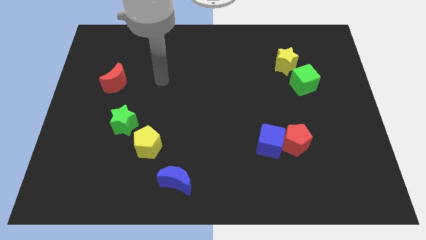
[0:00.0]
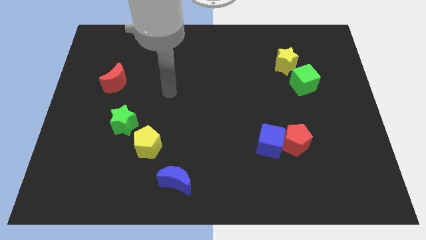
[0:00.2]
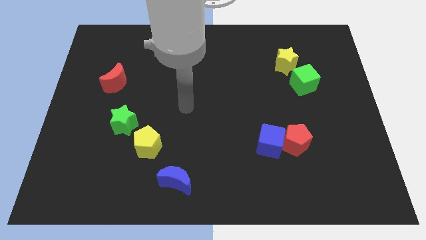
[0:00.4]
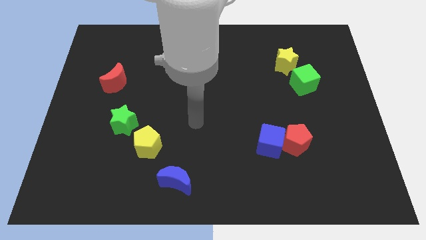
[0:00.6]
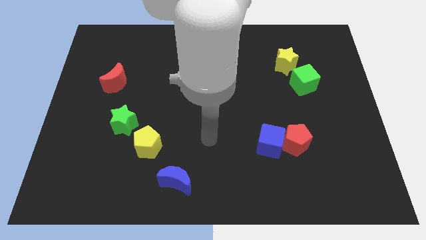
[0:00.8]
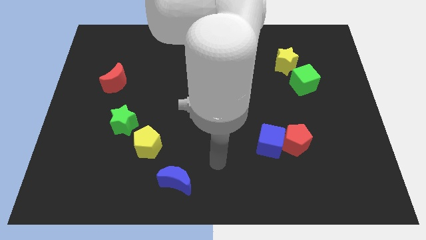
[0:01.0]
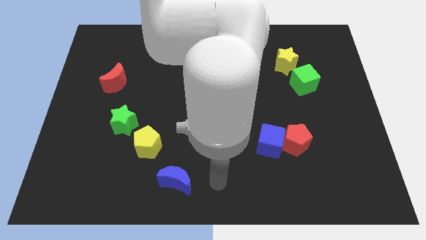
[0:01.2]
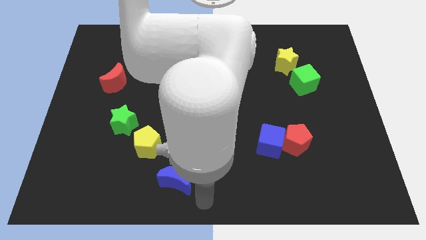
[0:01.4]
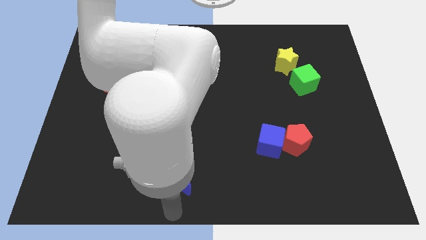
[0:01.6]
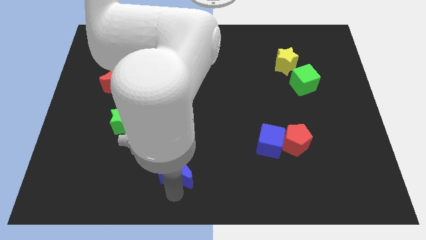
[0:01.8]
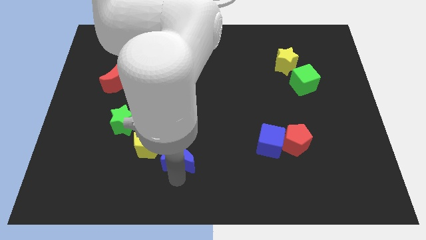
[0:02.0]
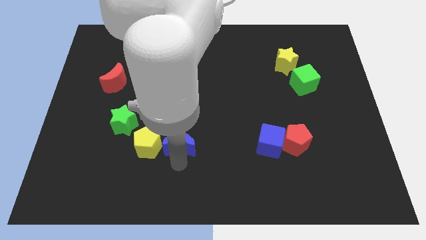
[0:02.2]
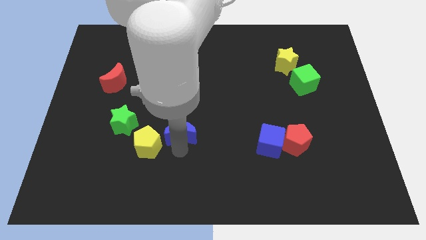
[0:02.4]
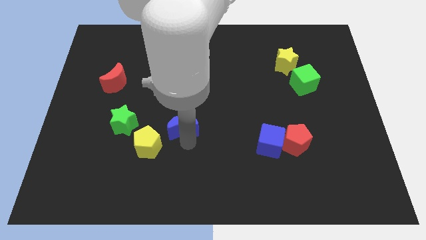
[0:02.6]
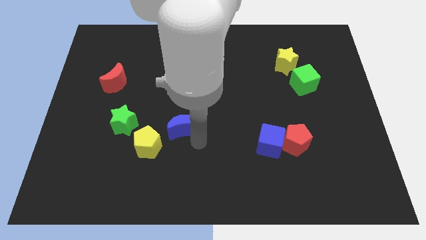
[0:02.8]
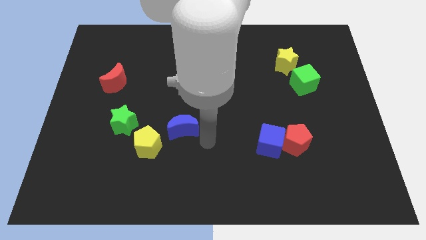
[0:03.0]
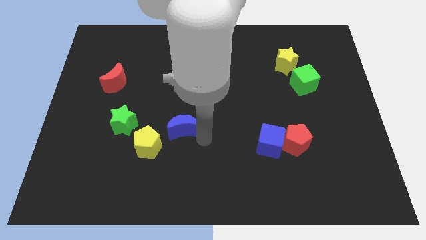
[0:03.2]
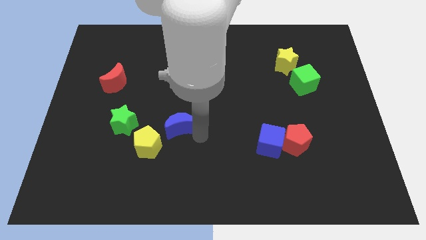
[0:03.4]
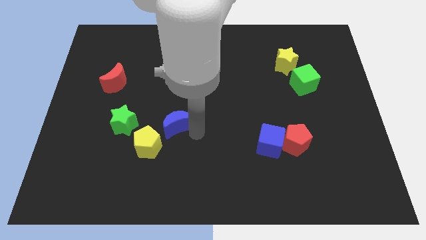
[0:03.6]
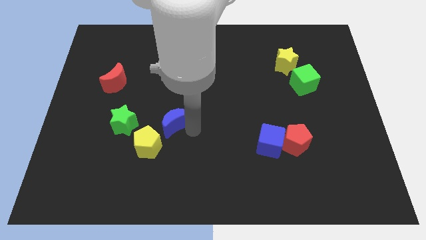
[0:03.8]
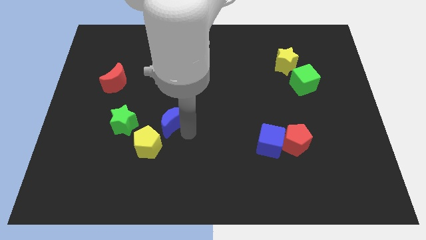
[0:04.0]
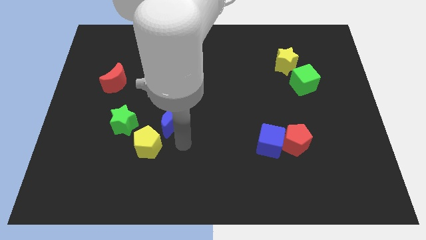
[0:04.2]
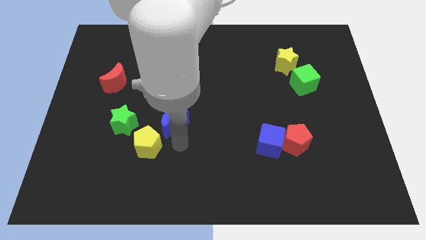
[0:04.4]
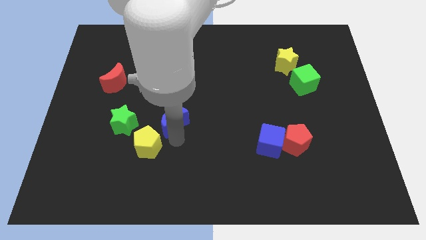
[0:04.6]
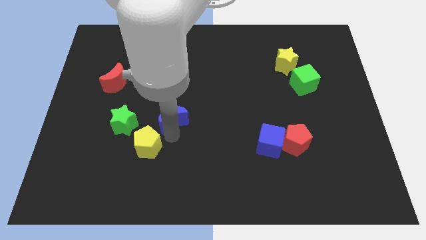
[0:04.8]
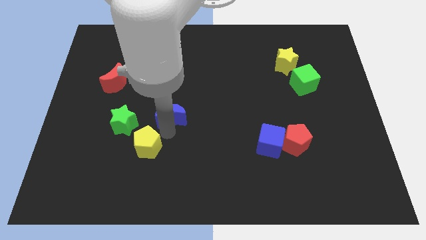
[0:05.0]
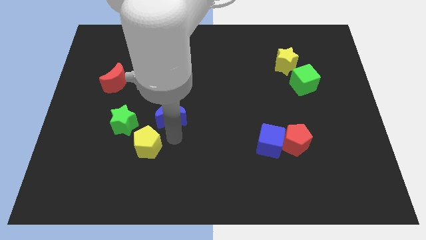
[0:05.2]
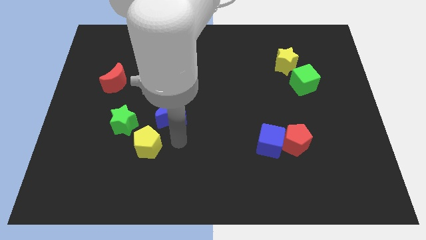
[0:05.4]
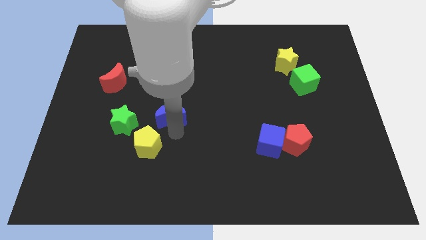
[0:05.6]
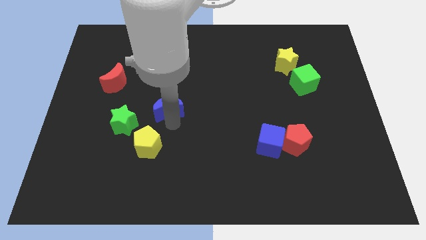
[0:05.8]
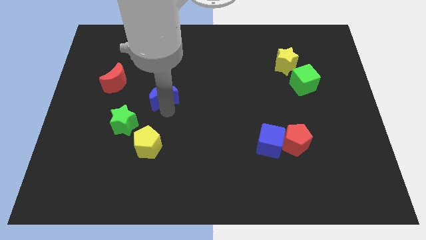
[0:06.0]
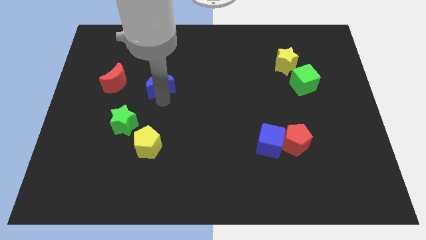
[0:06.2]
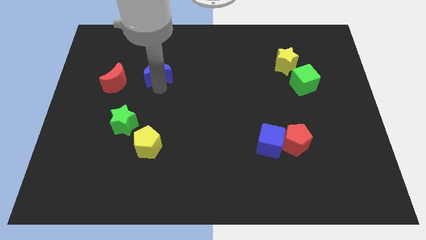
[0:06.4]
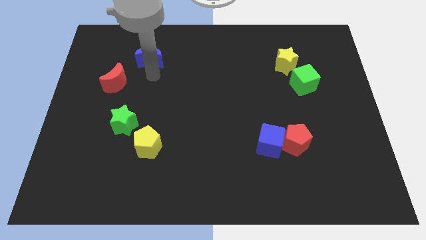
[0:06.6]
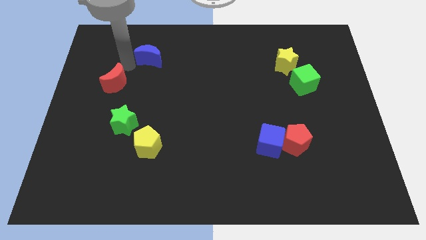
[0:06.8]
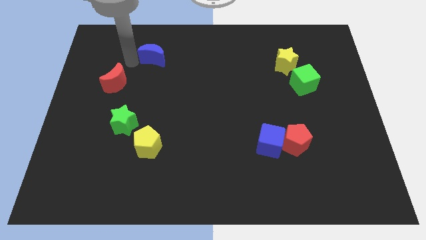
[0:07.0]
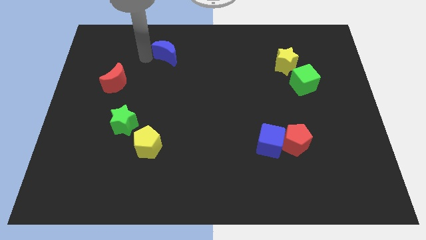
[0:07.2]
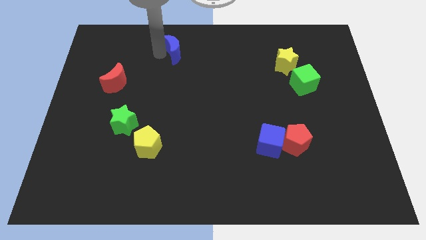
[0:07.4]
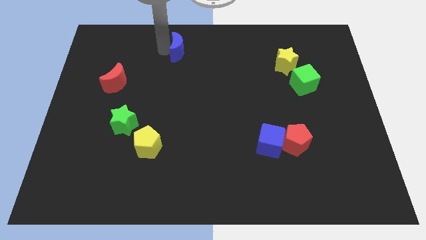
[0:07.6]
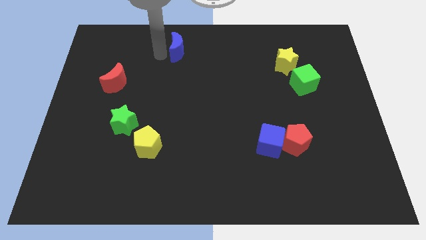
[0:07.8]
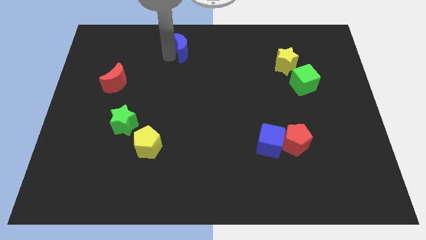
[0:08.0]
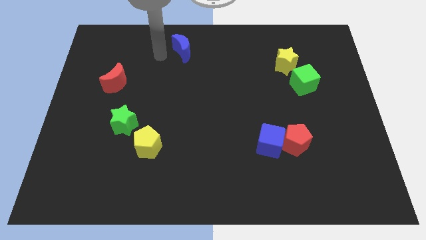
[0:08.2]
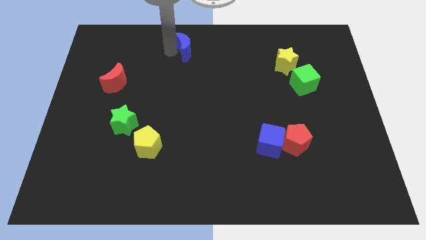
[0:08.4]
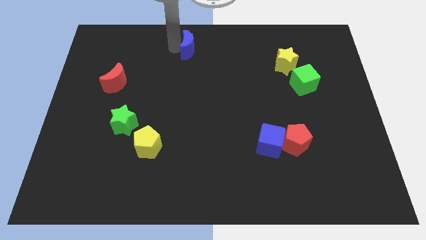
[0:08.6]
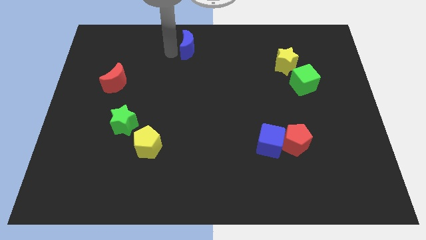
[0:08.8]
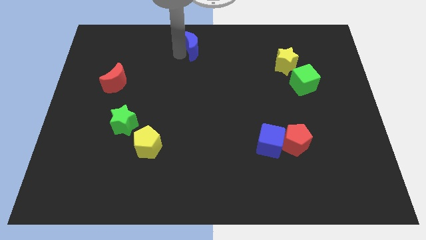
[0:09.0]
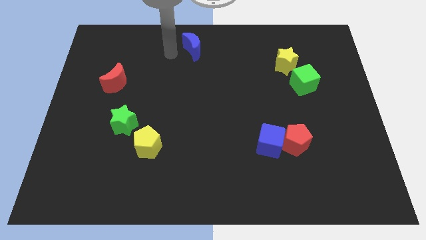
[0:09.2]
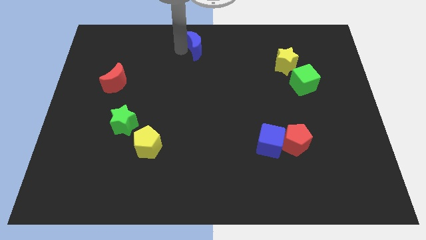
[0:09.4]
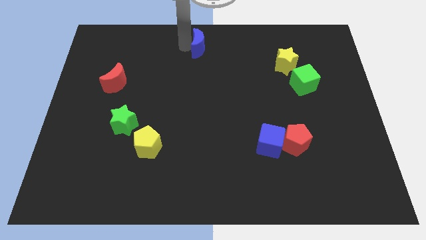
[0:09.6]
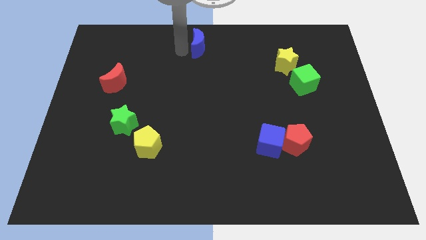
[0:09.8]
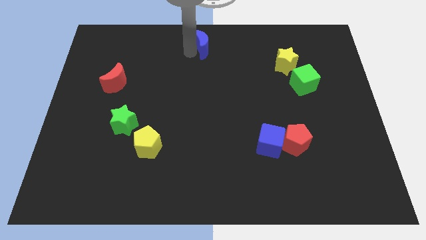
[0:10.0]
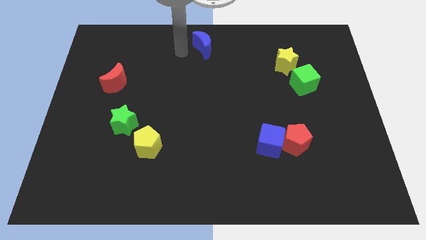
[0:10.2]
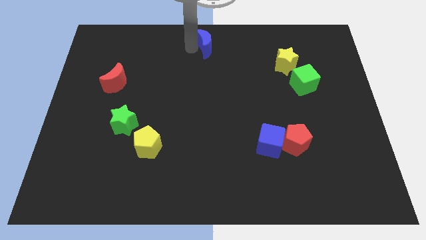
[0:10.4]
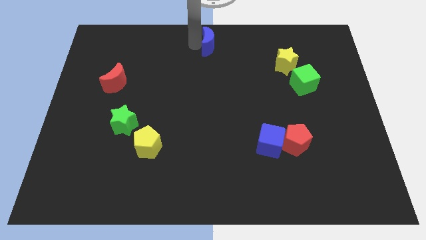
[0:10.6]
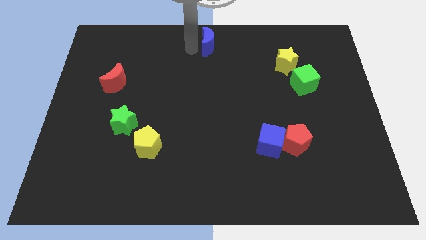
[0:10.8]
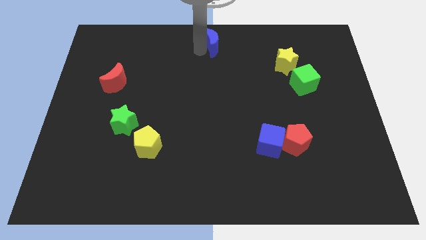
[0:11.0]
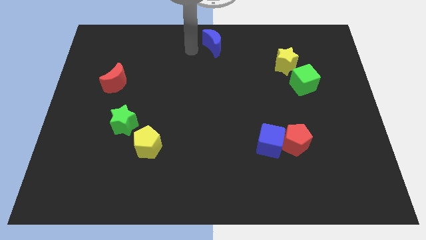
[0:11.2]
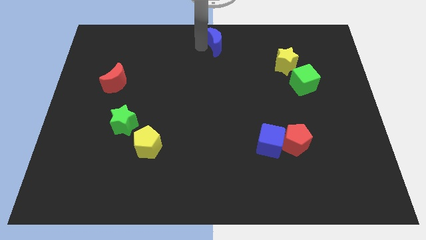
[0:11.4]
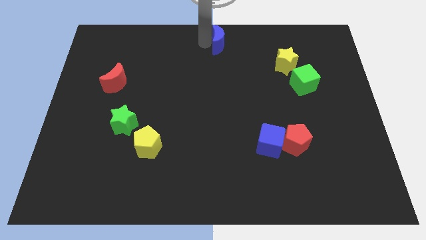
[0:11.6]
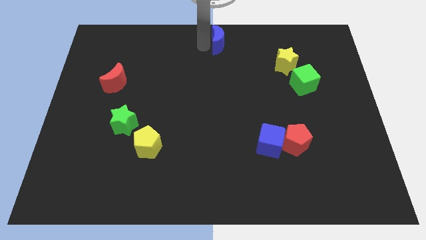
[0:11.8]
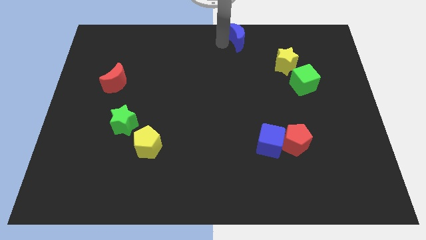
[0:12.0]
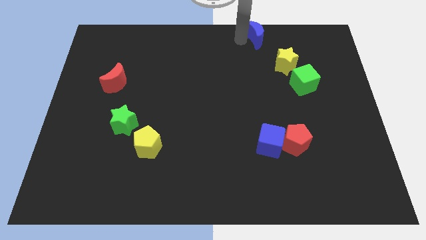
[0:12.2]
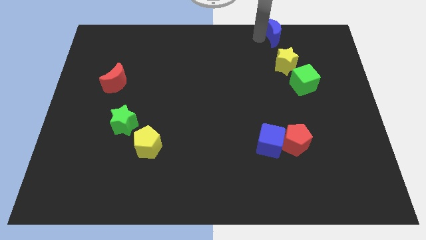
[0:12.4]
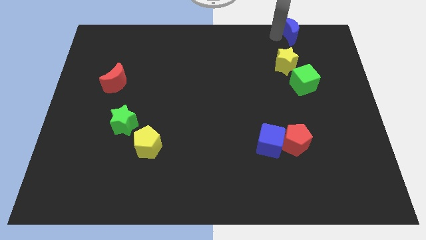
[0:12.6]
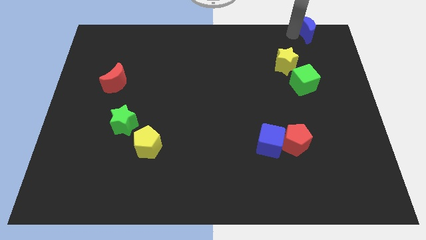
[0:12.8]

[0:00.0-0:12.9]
slide the blue moon to the top right of the board

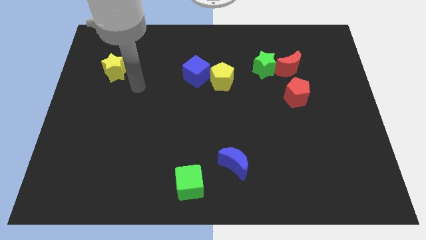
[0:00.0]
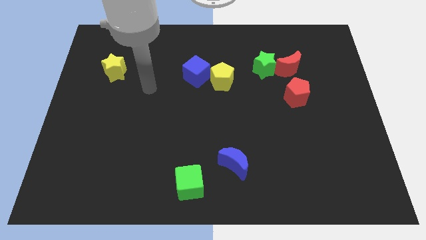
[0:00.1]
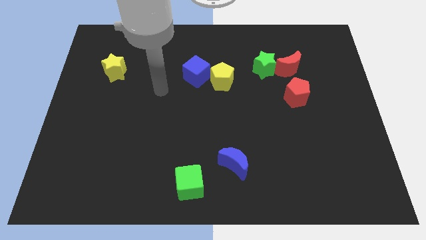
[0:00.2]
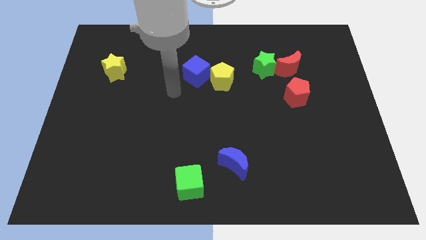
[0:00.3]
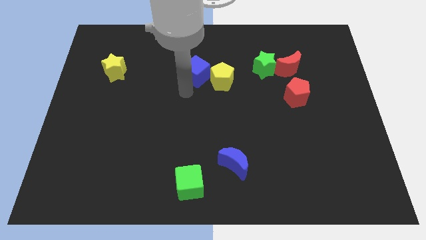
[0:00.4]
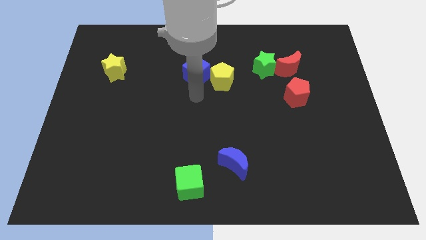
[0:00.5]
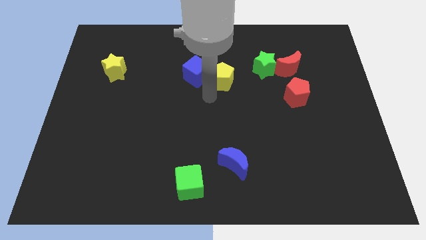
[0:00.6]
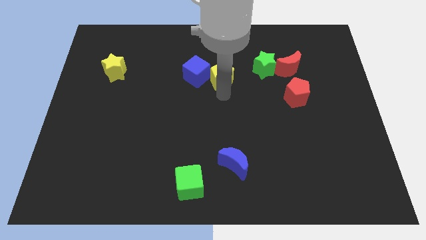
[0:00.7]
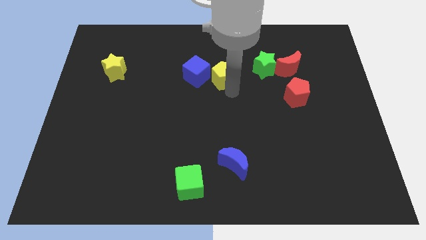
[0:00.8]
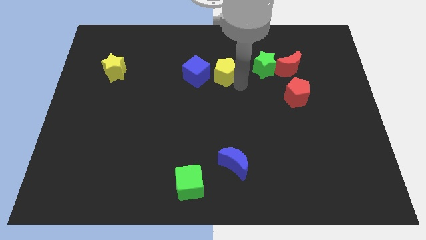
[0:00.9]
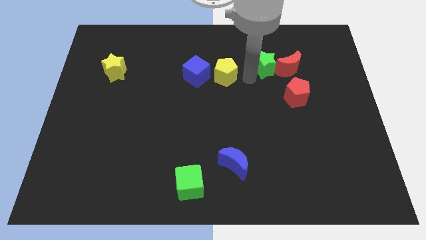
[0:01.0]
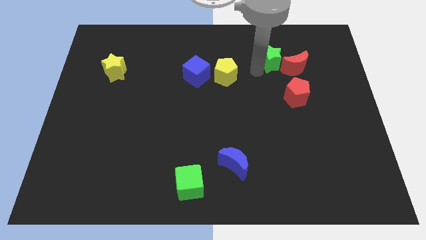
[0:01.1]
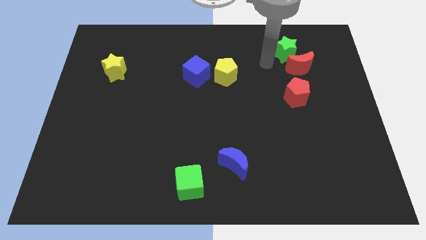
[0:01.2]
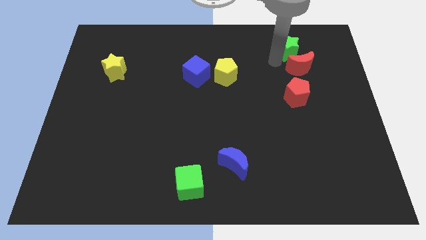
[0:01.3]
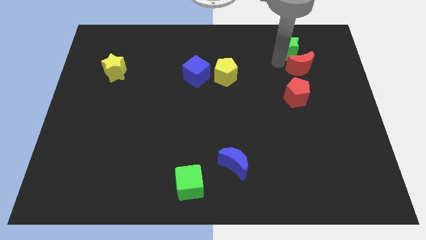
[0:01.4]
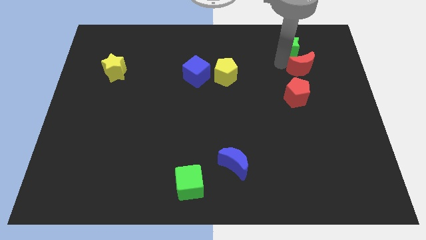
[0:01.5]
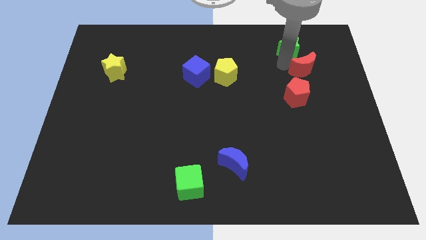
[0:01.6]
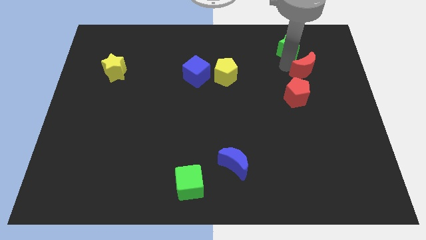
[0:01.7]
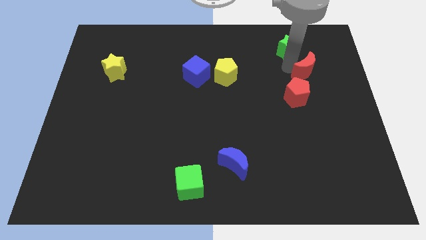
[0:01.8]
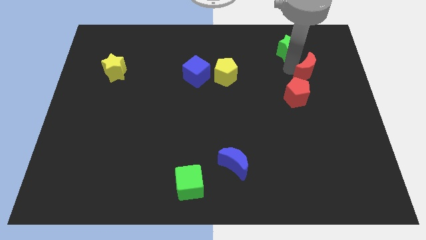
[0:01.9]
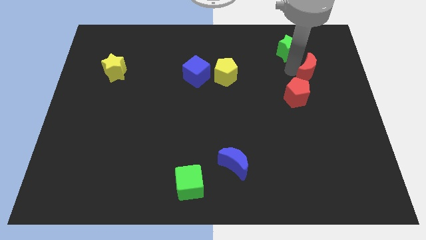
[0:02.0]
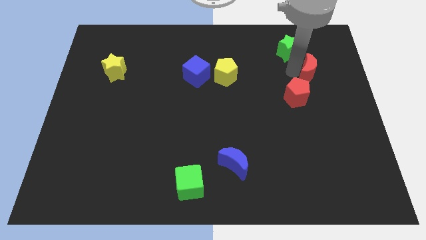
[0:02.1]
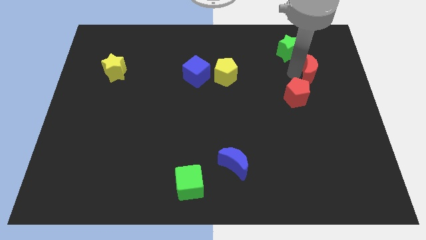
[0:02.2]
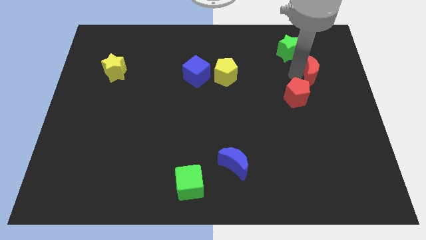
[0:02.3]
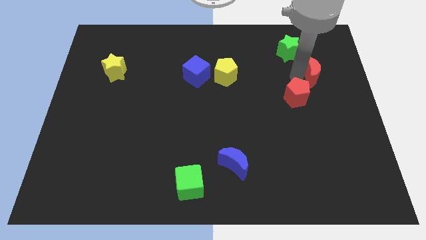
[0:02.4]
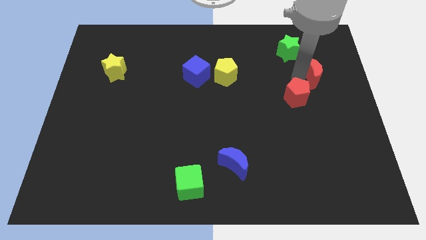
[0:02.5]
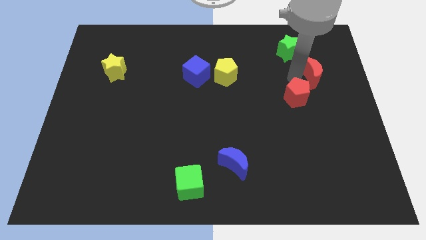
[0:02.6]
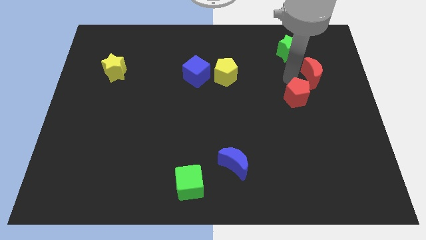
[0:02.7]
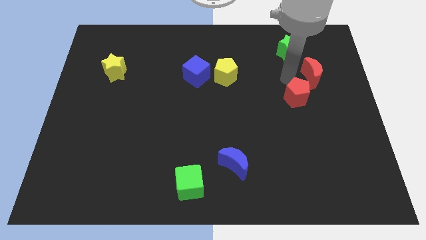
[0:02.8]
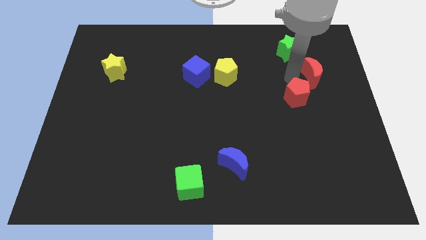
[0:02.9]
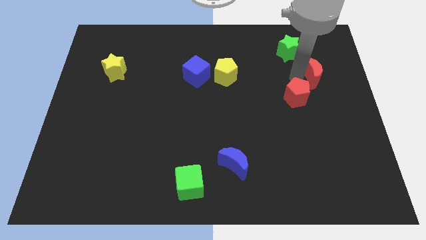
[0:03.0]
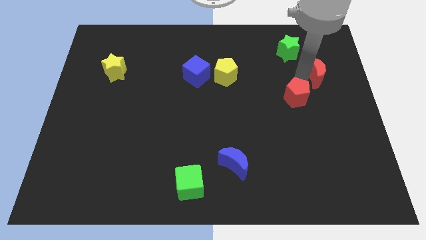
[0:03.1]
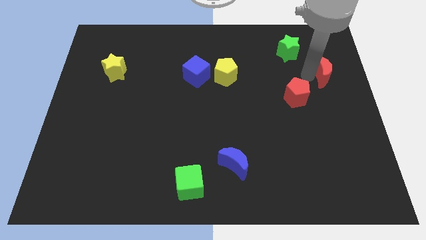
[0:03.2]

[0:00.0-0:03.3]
slide the red moon to the center right
